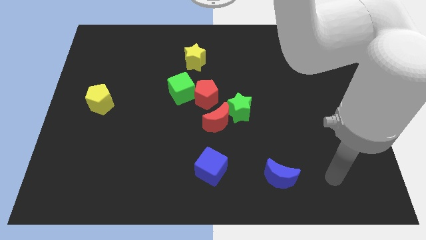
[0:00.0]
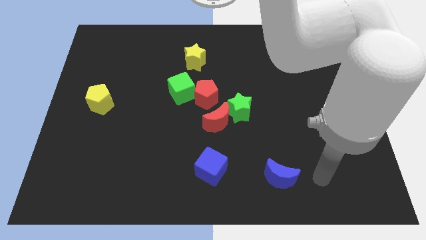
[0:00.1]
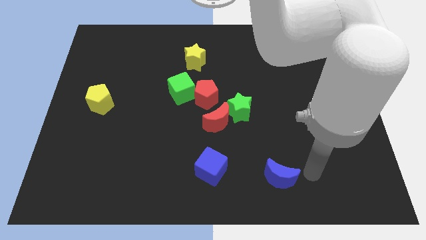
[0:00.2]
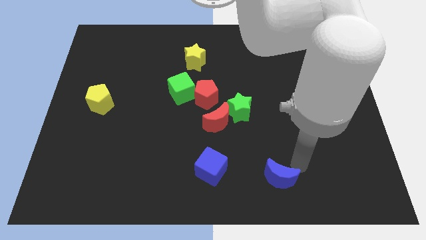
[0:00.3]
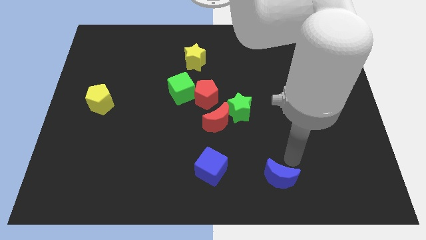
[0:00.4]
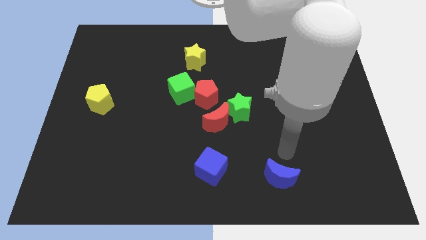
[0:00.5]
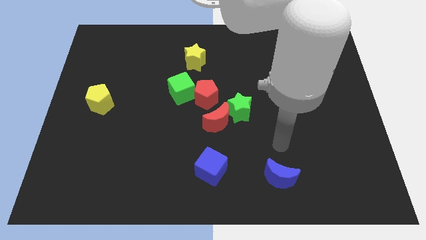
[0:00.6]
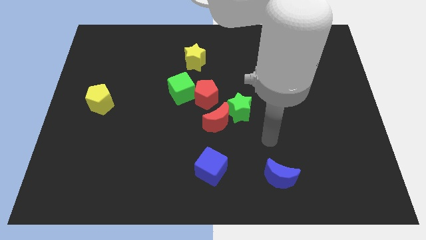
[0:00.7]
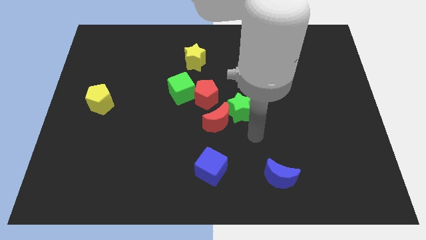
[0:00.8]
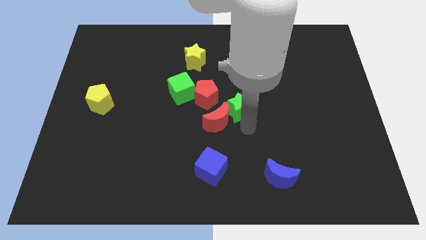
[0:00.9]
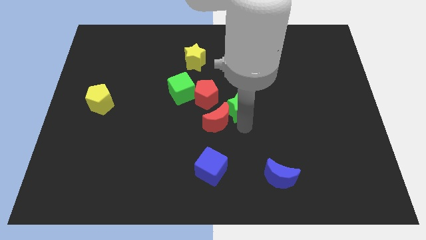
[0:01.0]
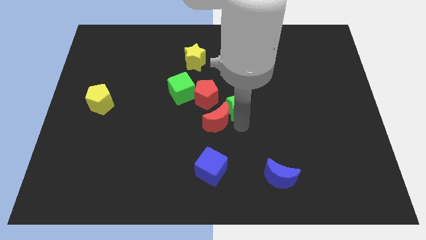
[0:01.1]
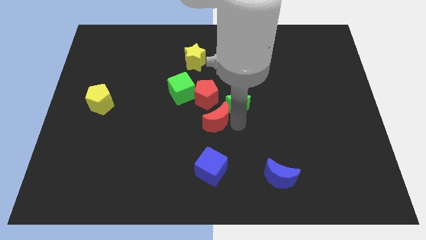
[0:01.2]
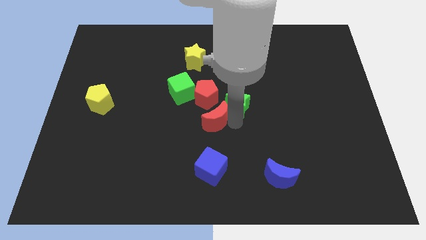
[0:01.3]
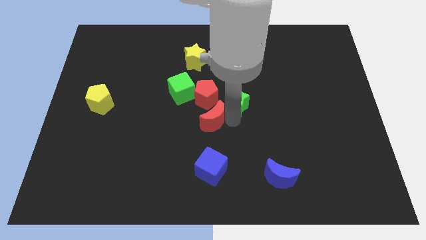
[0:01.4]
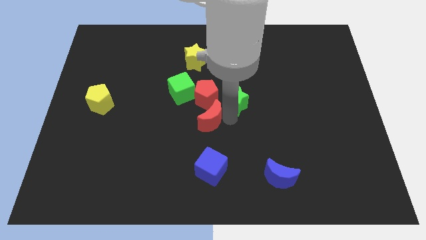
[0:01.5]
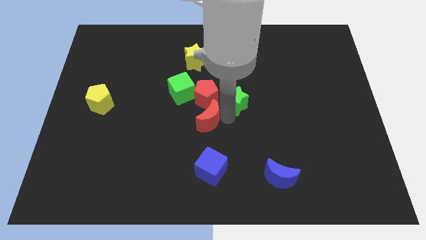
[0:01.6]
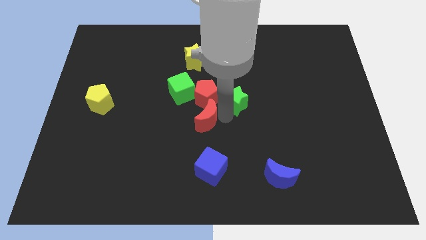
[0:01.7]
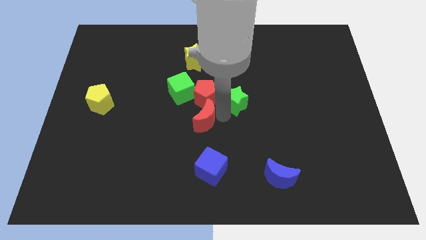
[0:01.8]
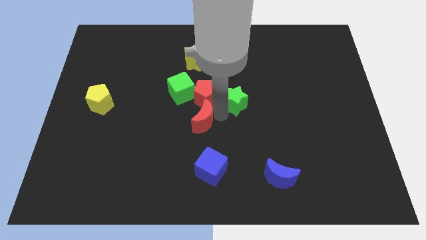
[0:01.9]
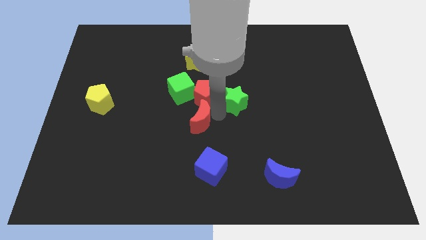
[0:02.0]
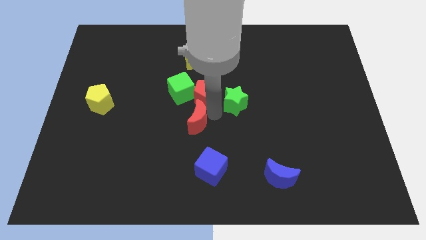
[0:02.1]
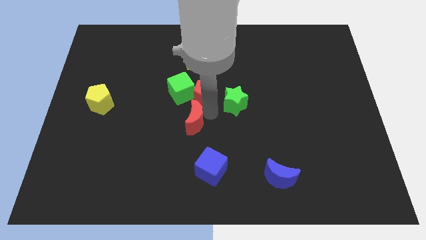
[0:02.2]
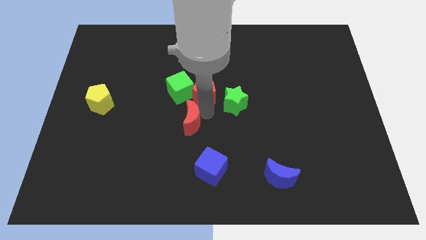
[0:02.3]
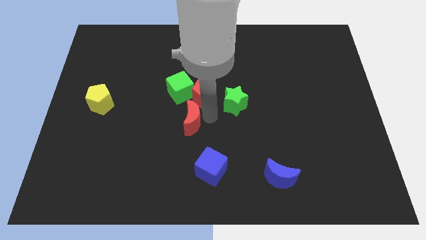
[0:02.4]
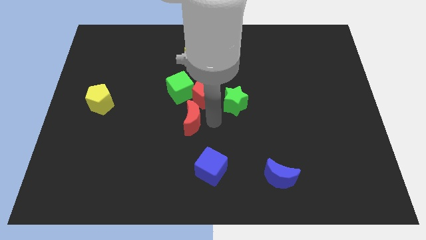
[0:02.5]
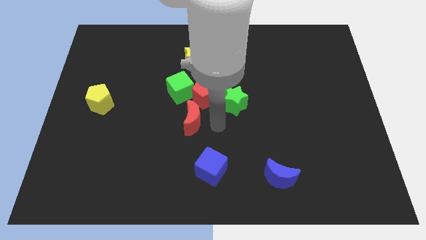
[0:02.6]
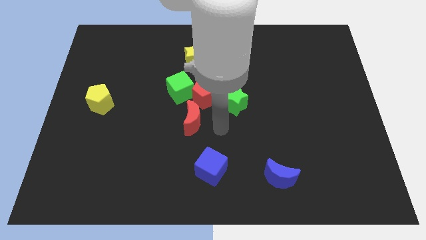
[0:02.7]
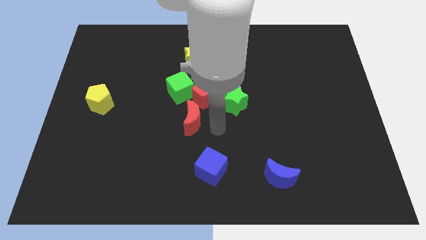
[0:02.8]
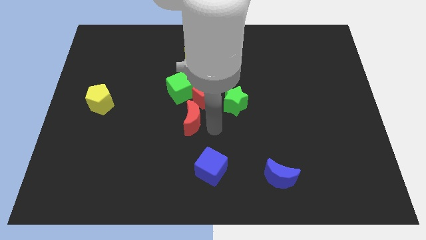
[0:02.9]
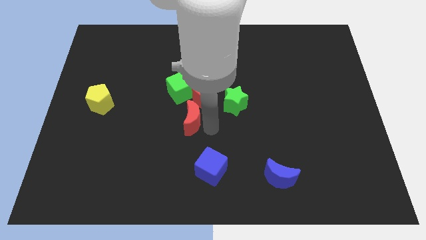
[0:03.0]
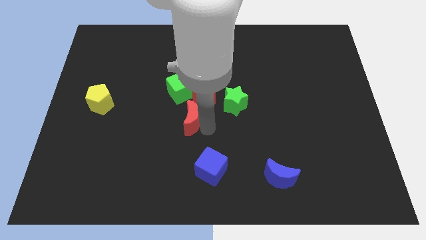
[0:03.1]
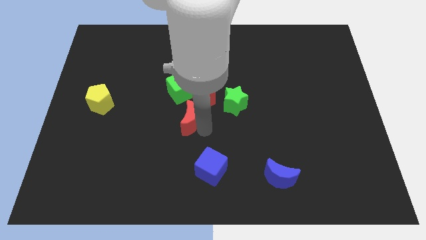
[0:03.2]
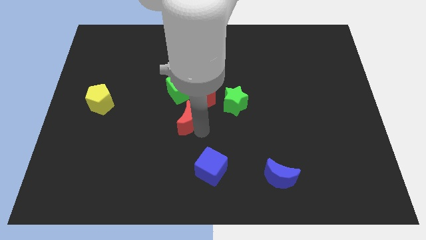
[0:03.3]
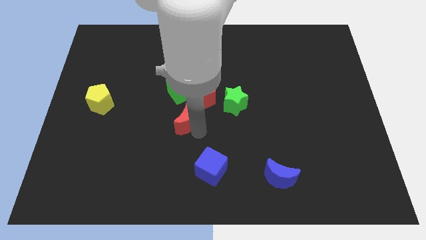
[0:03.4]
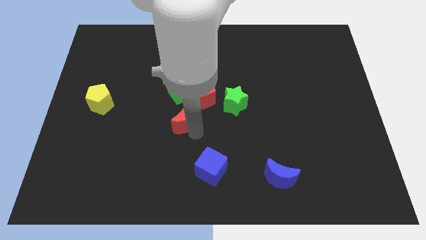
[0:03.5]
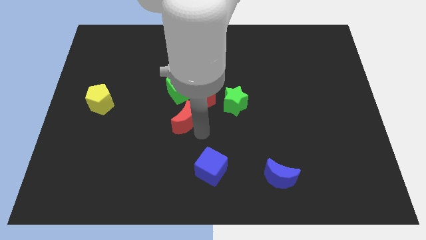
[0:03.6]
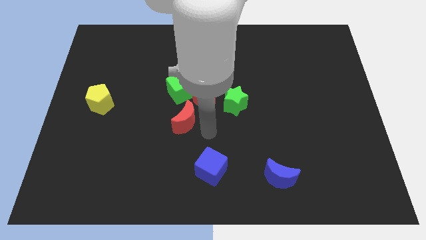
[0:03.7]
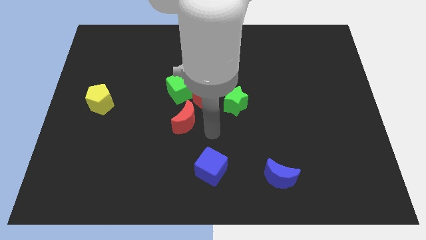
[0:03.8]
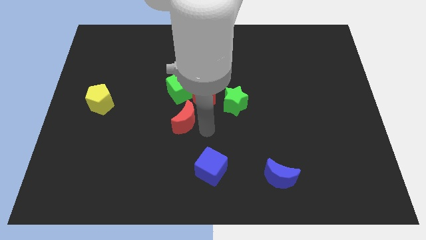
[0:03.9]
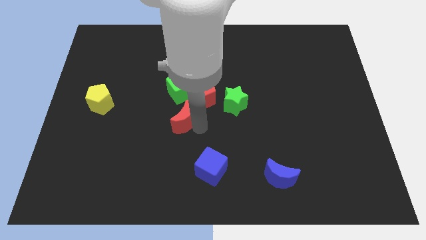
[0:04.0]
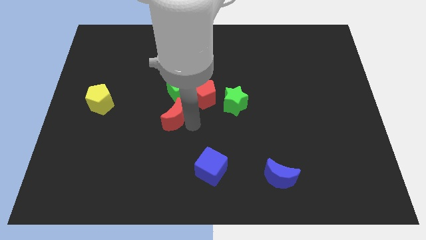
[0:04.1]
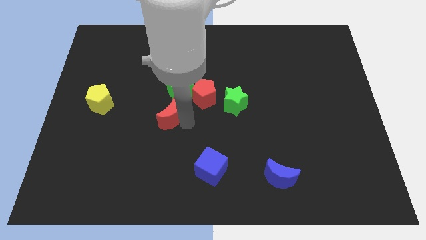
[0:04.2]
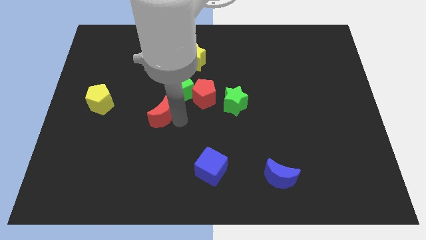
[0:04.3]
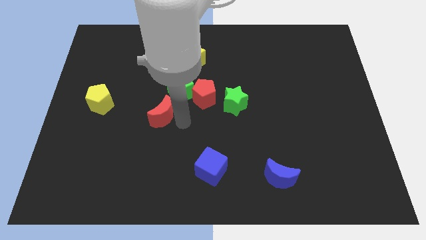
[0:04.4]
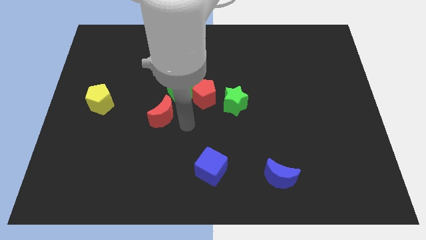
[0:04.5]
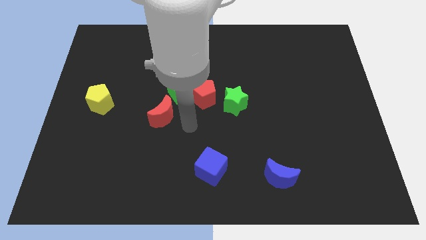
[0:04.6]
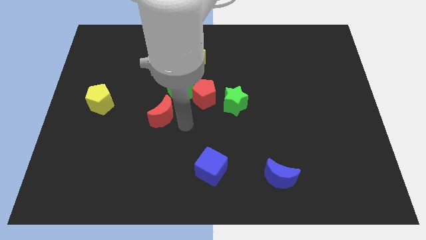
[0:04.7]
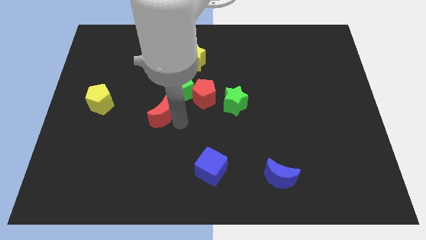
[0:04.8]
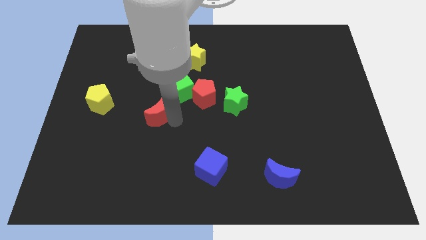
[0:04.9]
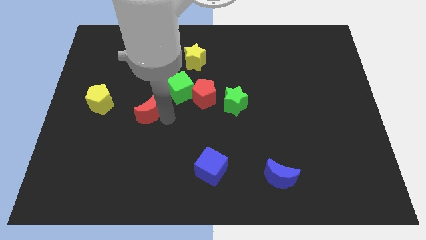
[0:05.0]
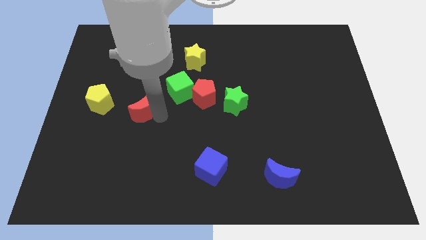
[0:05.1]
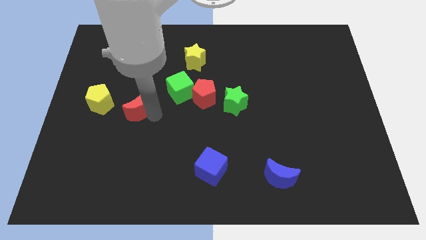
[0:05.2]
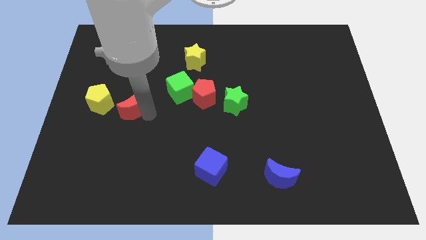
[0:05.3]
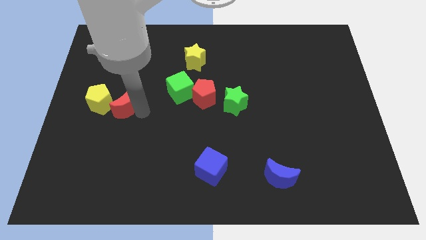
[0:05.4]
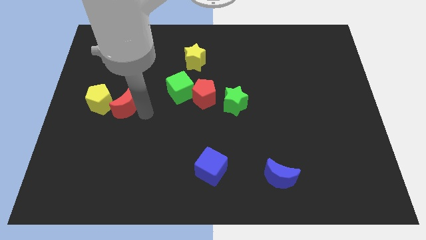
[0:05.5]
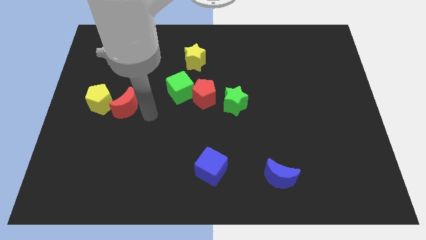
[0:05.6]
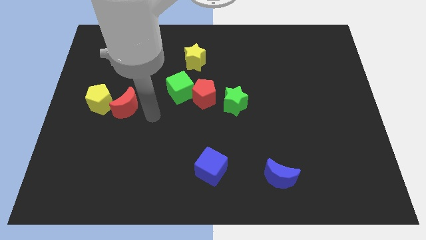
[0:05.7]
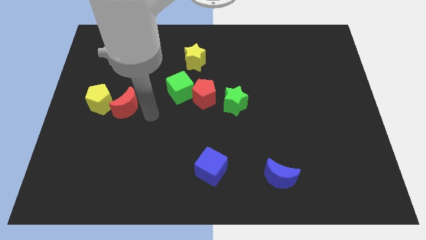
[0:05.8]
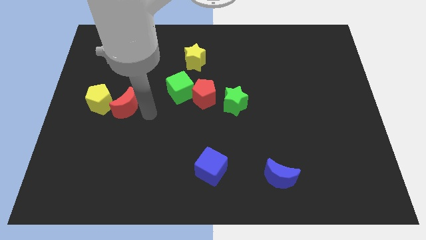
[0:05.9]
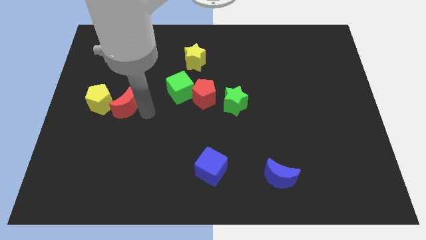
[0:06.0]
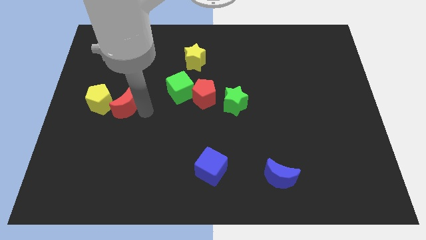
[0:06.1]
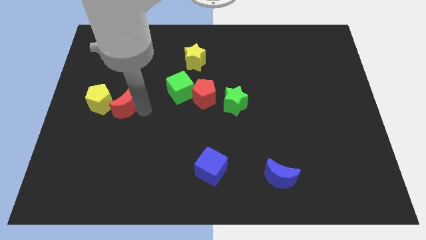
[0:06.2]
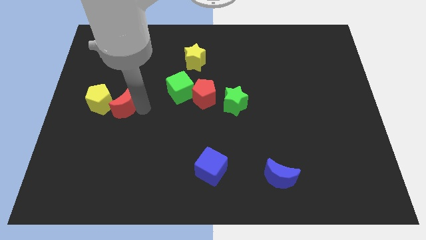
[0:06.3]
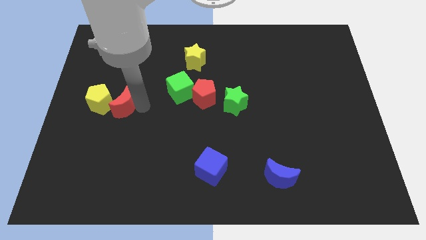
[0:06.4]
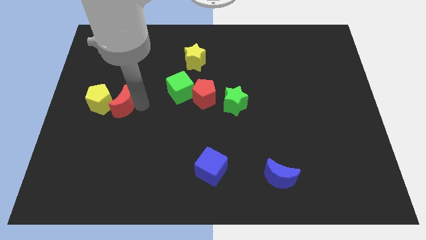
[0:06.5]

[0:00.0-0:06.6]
move the red moon close to the yellow pentagon

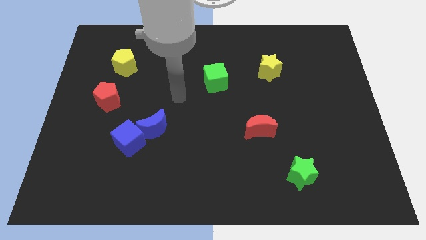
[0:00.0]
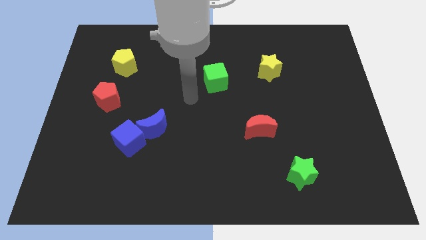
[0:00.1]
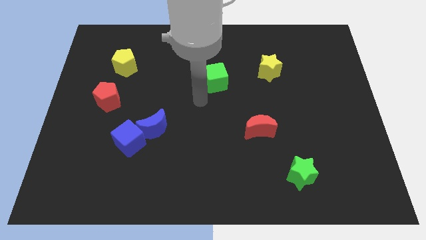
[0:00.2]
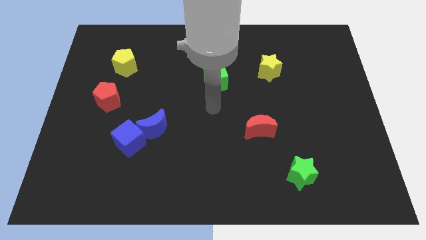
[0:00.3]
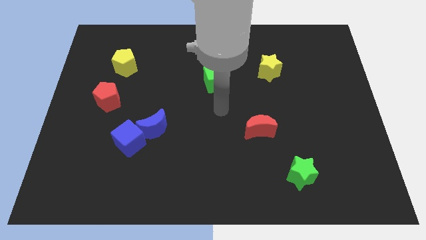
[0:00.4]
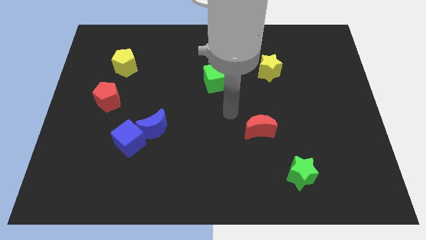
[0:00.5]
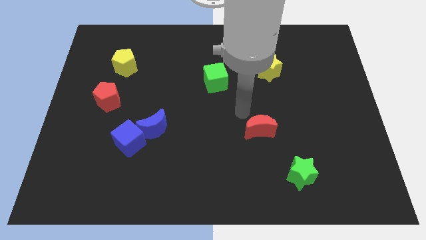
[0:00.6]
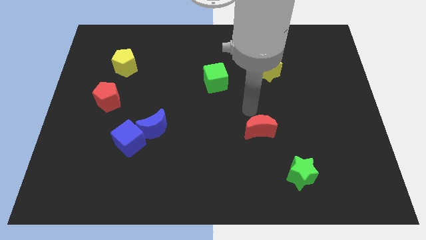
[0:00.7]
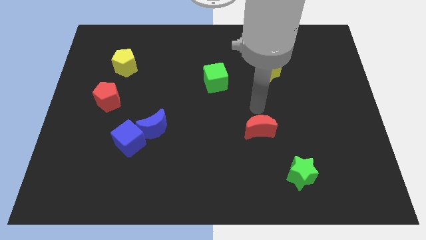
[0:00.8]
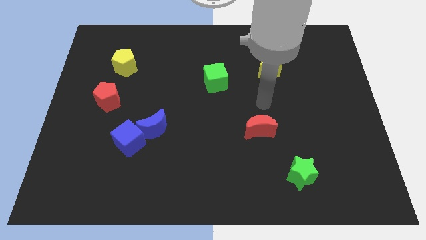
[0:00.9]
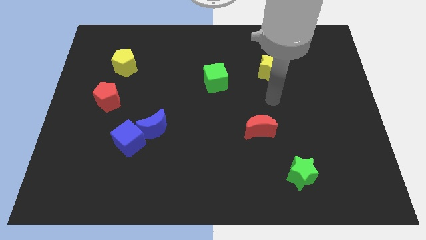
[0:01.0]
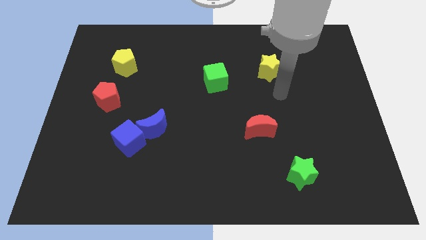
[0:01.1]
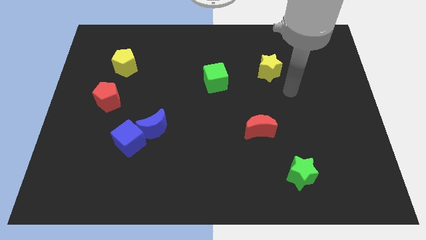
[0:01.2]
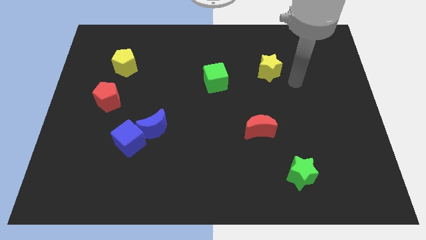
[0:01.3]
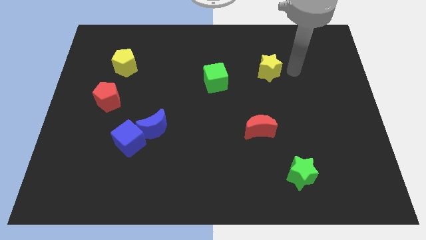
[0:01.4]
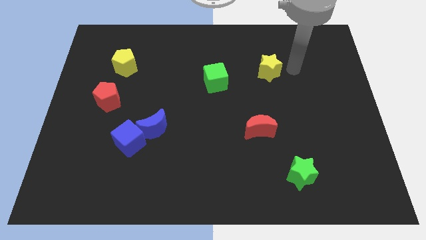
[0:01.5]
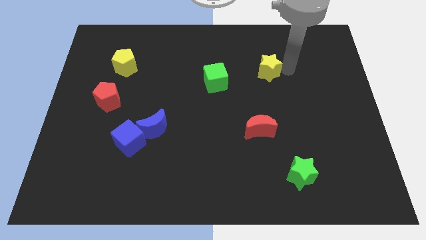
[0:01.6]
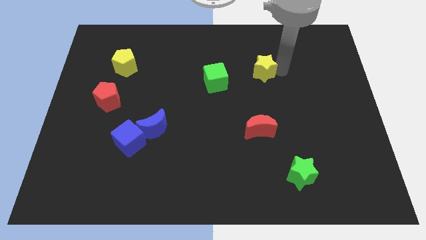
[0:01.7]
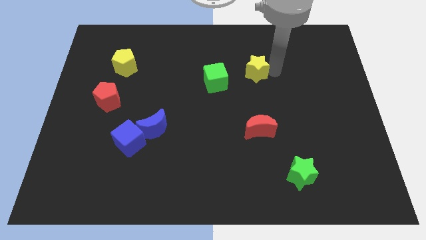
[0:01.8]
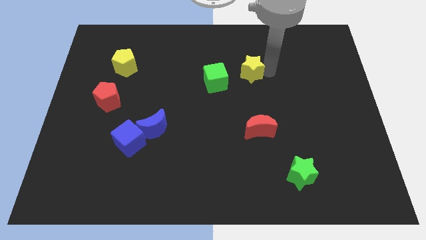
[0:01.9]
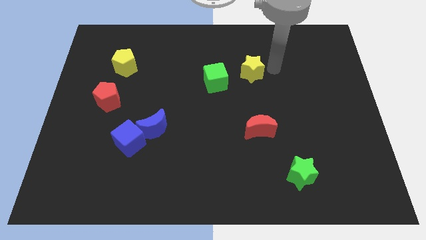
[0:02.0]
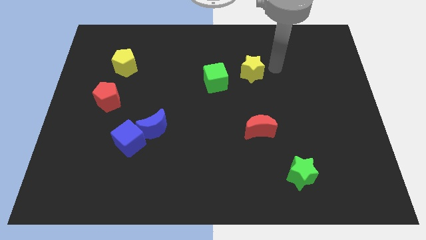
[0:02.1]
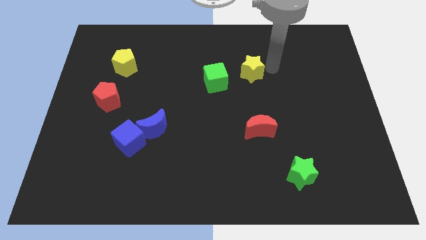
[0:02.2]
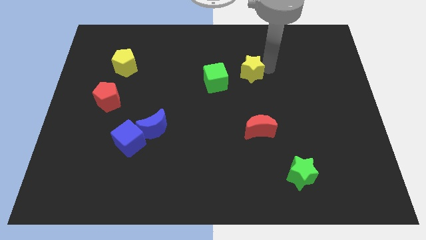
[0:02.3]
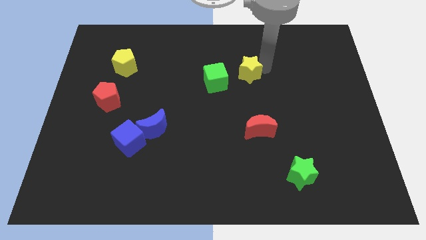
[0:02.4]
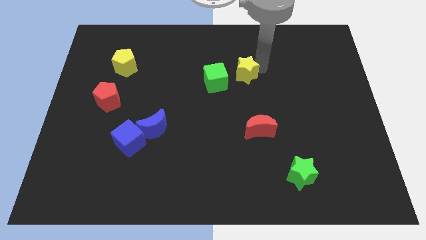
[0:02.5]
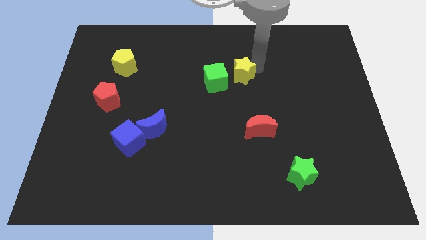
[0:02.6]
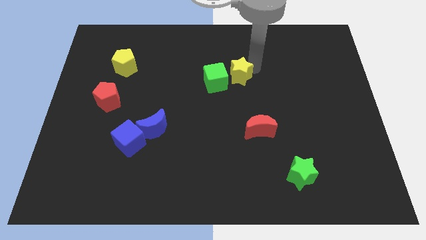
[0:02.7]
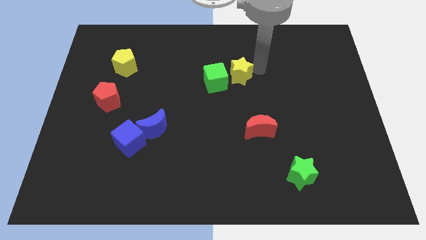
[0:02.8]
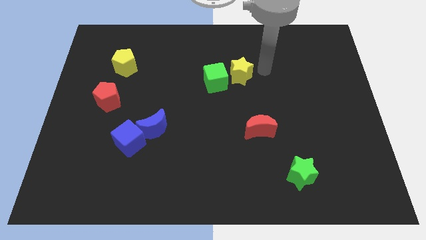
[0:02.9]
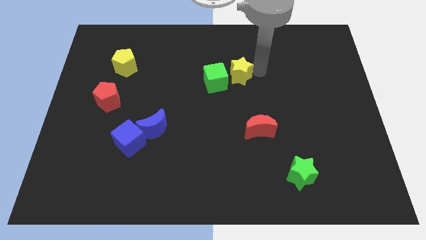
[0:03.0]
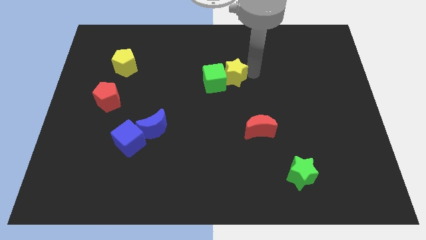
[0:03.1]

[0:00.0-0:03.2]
put the yellow star to the green cube
